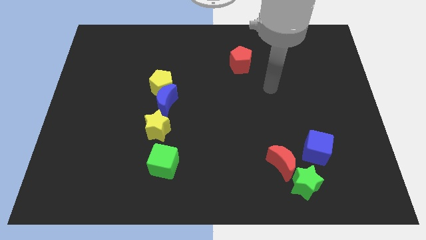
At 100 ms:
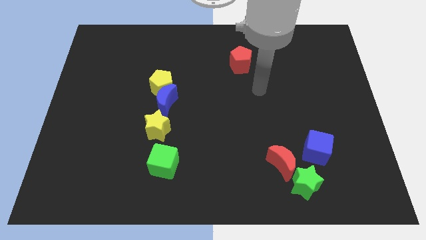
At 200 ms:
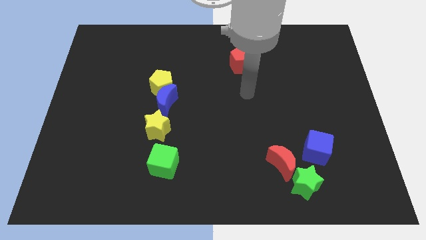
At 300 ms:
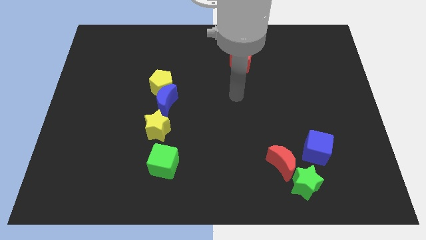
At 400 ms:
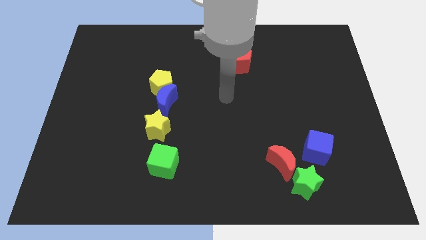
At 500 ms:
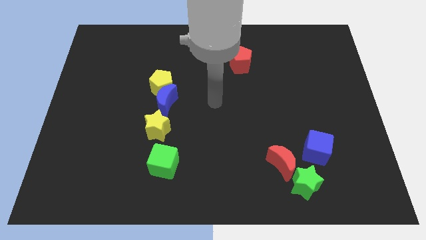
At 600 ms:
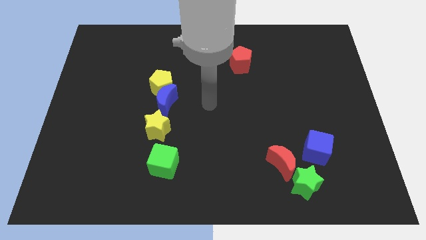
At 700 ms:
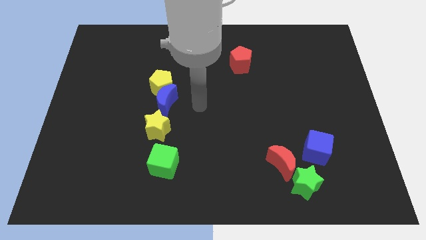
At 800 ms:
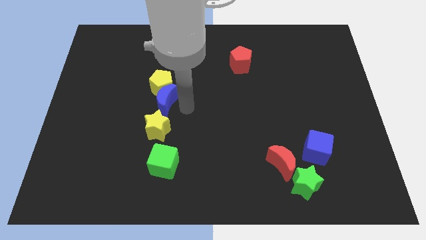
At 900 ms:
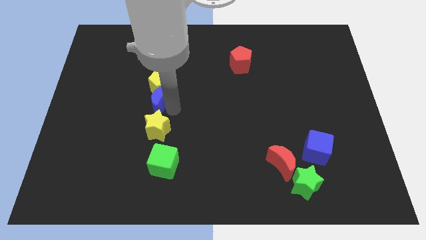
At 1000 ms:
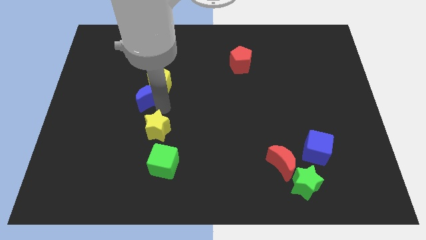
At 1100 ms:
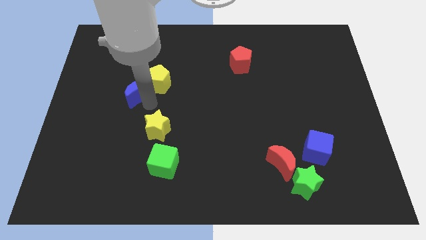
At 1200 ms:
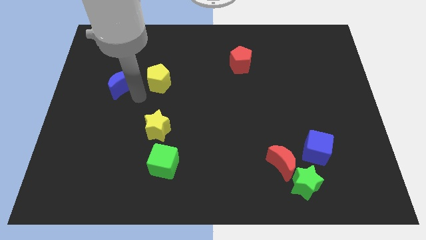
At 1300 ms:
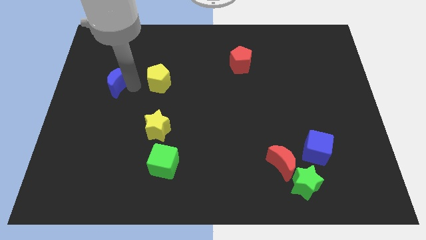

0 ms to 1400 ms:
pull the yellow pentagon apart from the blue moon

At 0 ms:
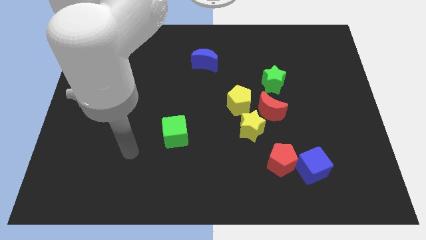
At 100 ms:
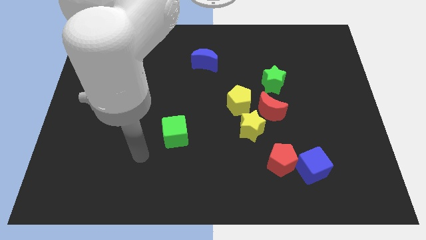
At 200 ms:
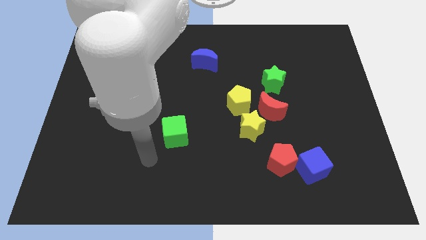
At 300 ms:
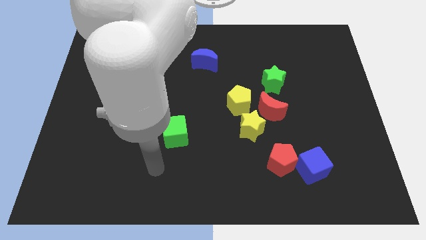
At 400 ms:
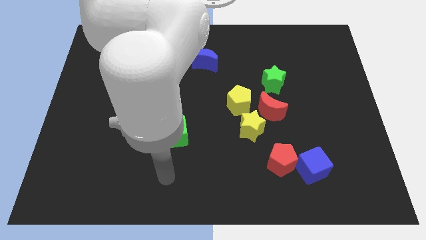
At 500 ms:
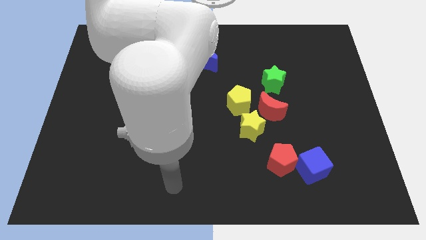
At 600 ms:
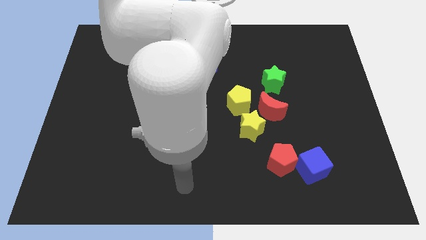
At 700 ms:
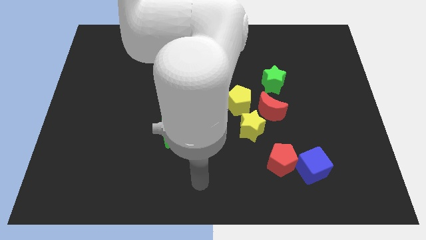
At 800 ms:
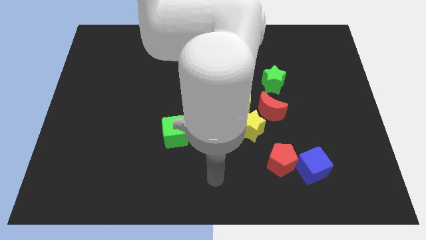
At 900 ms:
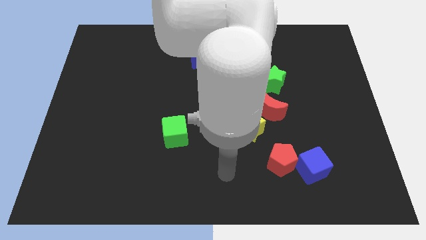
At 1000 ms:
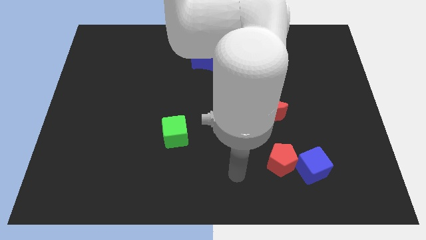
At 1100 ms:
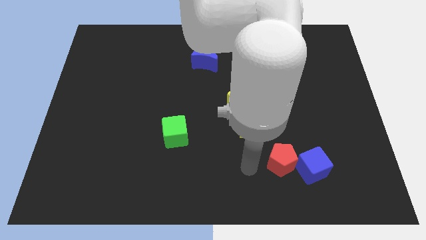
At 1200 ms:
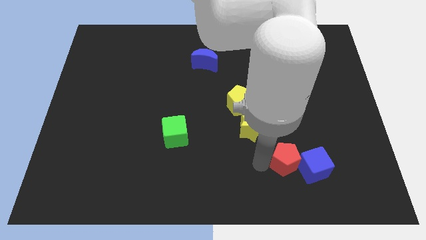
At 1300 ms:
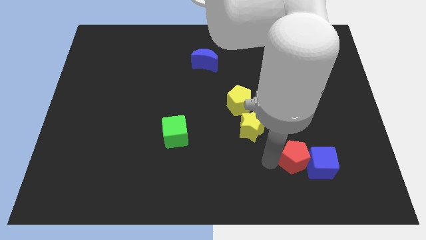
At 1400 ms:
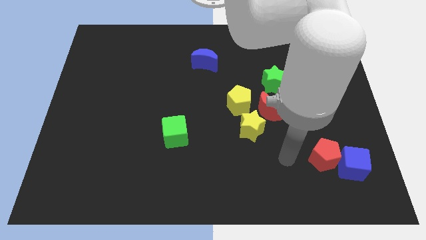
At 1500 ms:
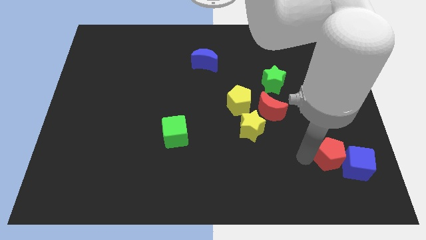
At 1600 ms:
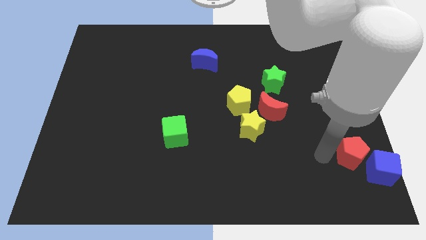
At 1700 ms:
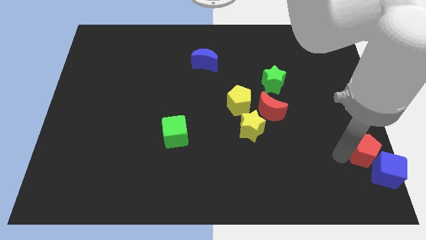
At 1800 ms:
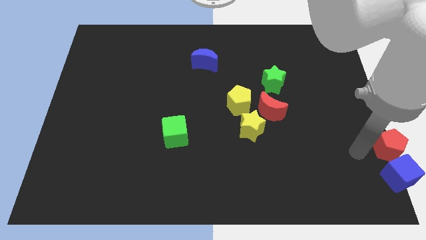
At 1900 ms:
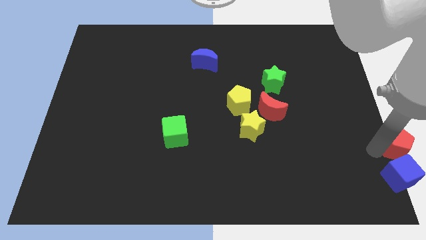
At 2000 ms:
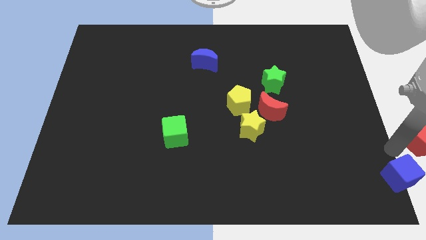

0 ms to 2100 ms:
move the blue cube away from the red pentagon

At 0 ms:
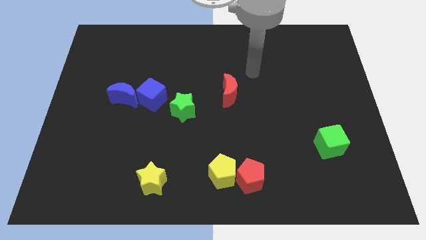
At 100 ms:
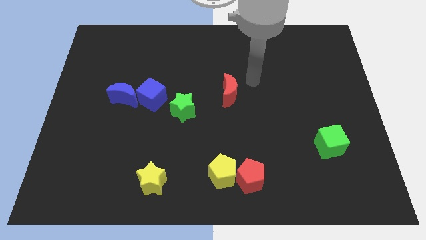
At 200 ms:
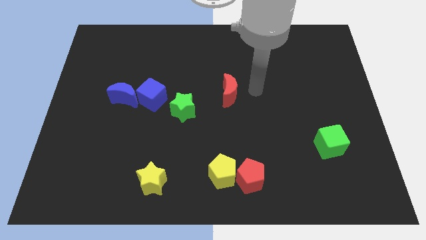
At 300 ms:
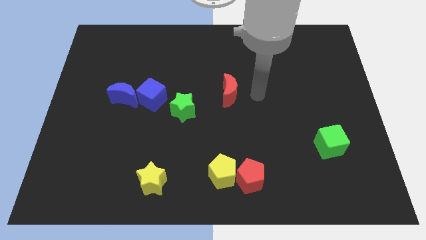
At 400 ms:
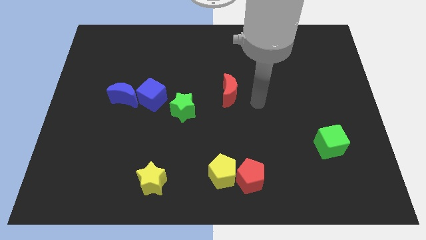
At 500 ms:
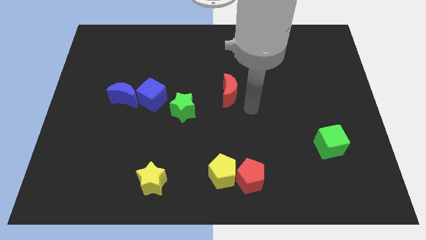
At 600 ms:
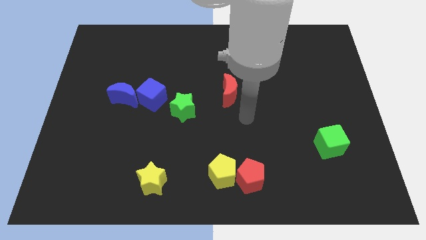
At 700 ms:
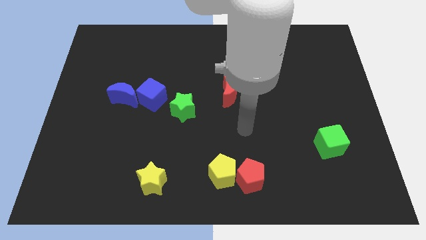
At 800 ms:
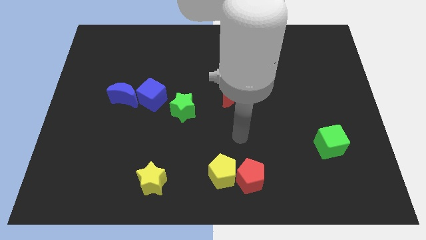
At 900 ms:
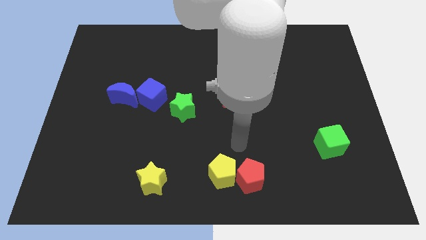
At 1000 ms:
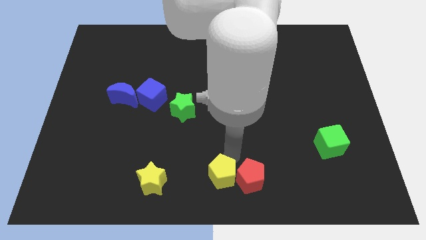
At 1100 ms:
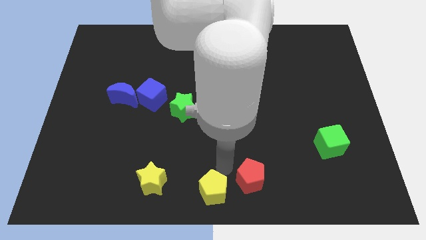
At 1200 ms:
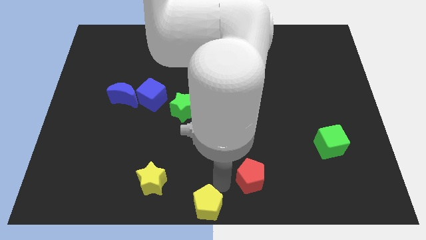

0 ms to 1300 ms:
separate the red pentagon from the yellow pentagon

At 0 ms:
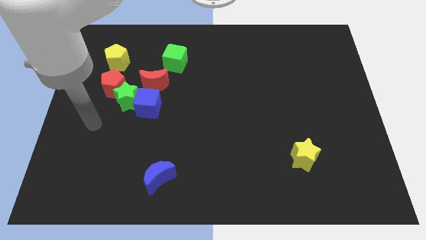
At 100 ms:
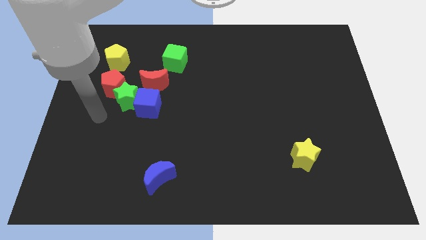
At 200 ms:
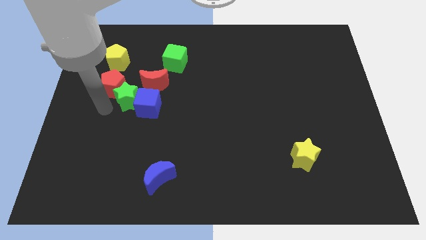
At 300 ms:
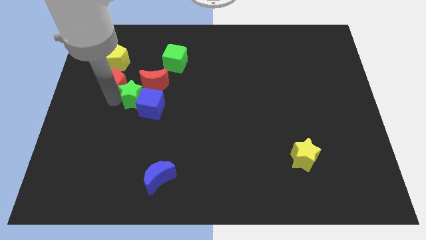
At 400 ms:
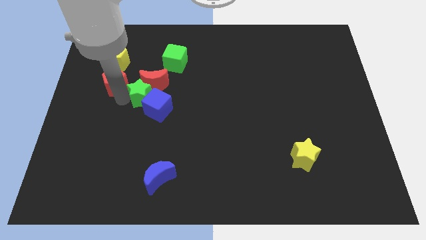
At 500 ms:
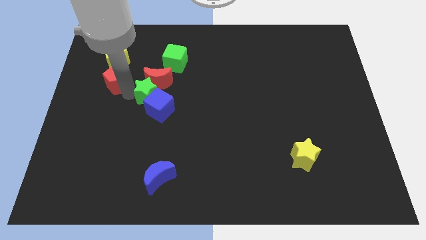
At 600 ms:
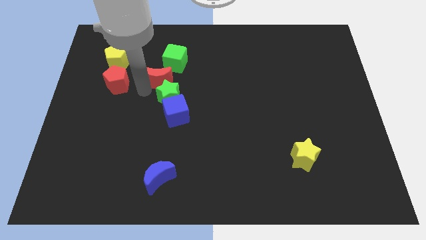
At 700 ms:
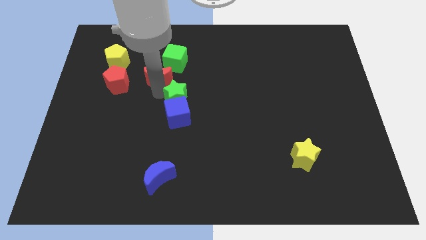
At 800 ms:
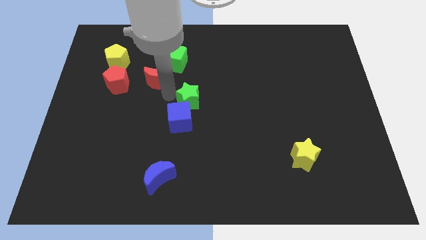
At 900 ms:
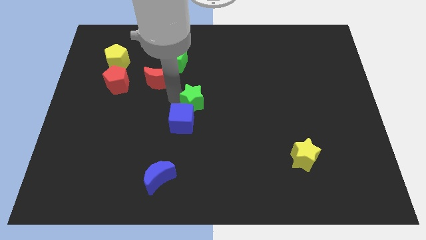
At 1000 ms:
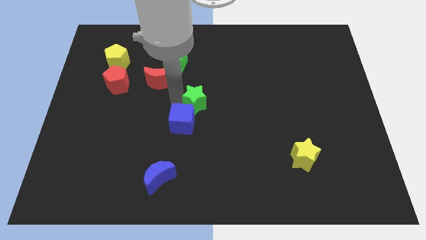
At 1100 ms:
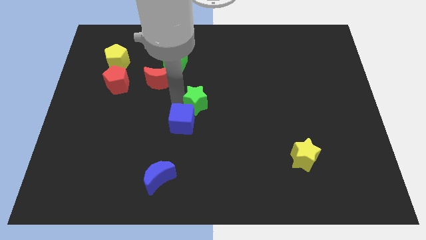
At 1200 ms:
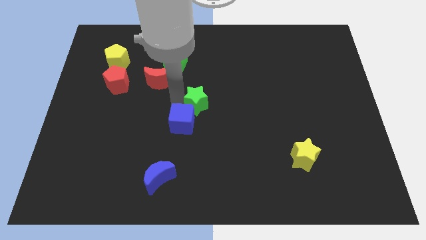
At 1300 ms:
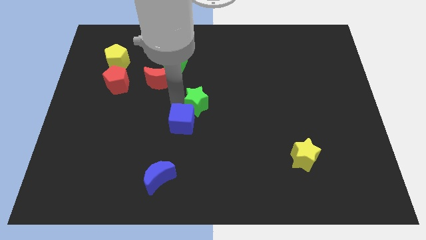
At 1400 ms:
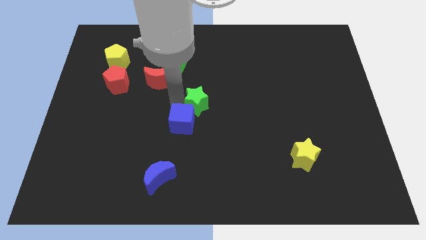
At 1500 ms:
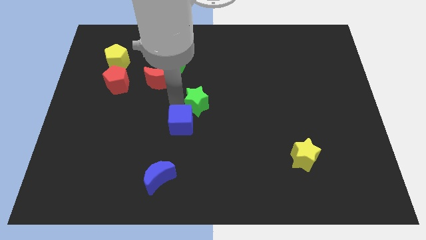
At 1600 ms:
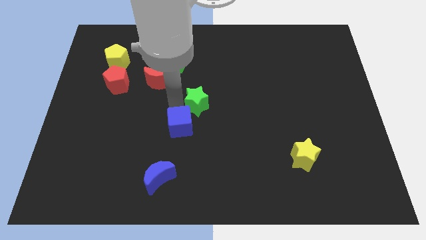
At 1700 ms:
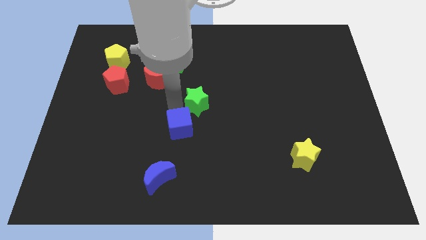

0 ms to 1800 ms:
pull the blue cube apart from the green star and red moon

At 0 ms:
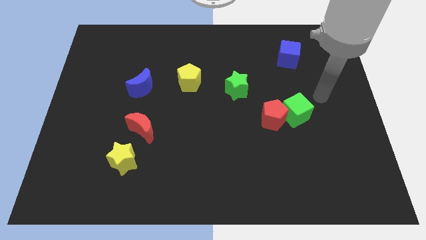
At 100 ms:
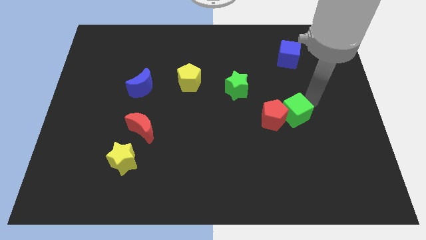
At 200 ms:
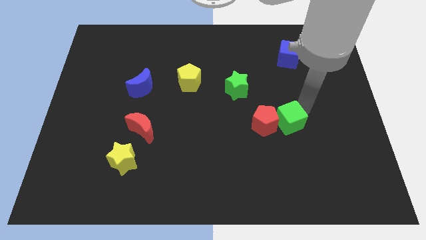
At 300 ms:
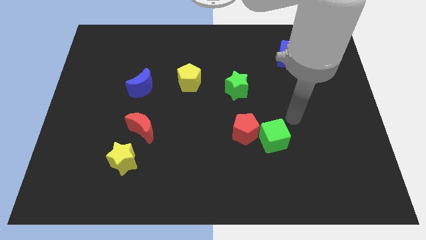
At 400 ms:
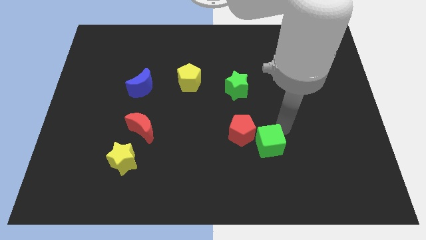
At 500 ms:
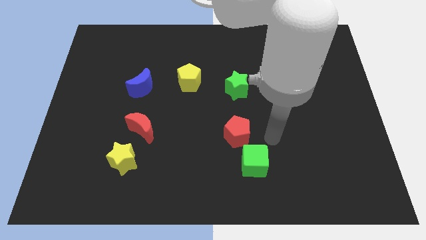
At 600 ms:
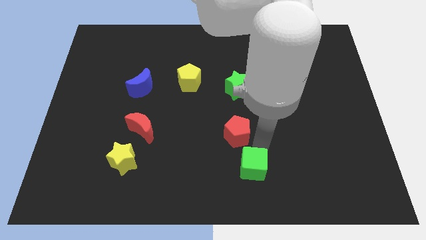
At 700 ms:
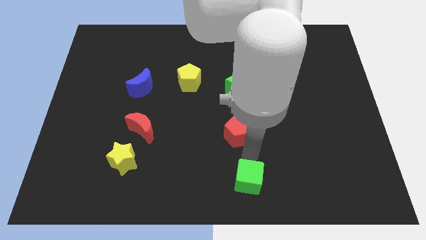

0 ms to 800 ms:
pull the red pentagon apart from the green cube

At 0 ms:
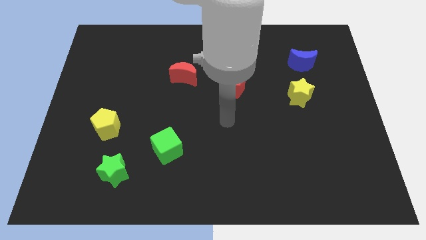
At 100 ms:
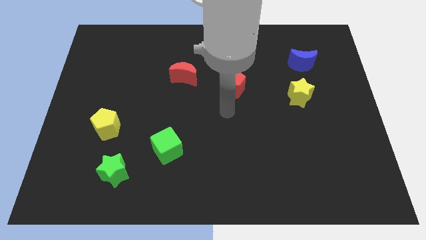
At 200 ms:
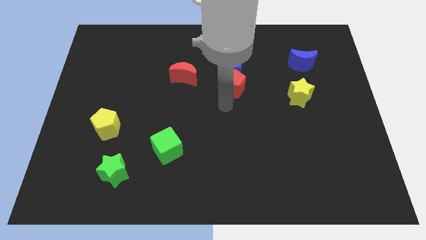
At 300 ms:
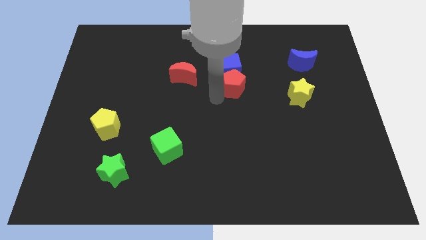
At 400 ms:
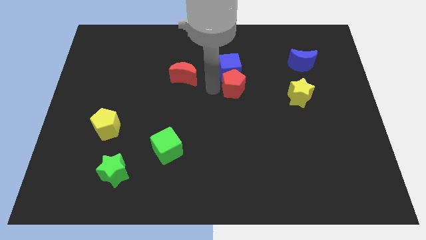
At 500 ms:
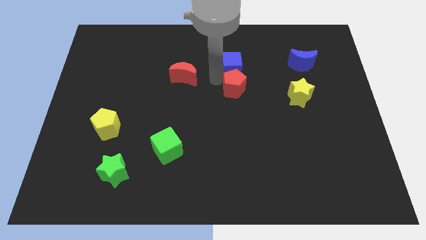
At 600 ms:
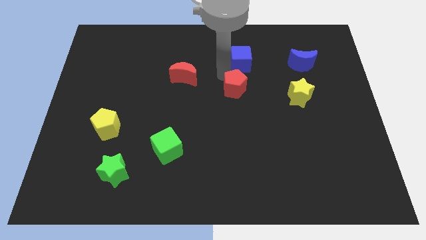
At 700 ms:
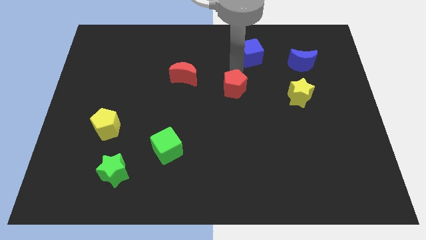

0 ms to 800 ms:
separate the red pentagon from the blue cube

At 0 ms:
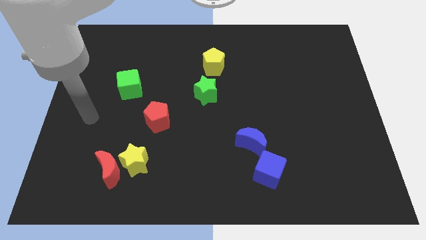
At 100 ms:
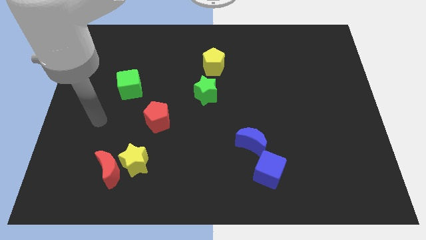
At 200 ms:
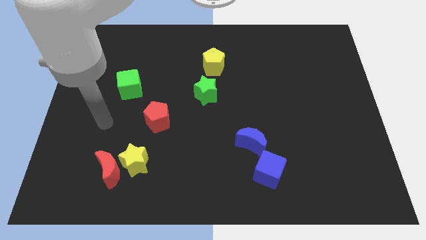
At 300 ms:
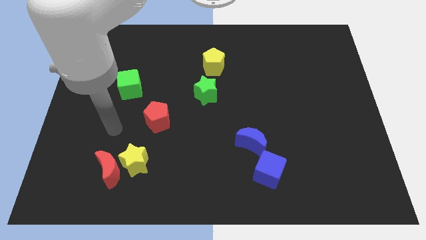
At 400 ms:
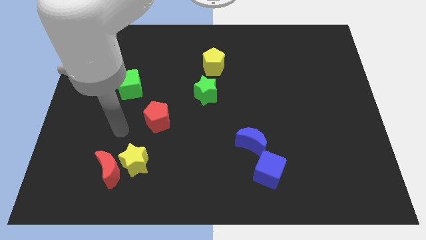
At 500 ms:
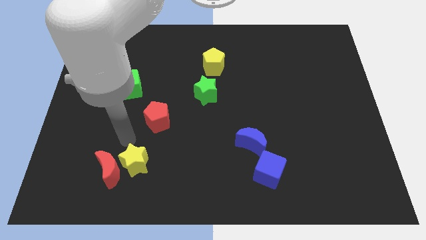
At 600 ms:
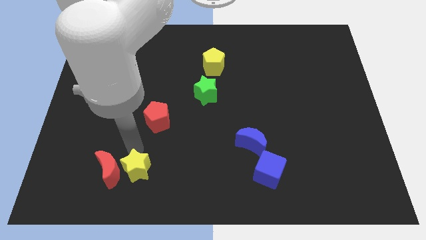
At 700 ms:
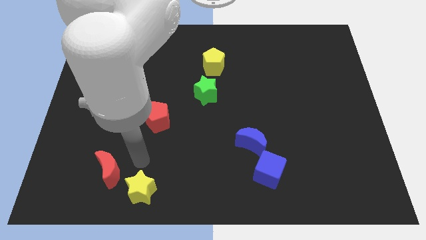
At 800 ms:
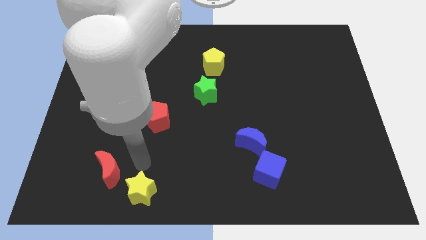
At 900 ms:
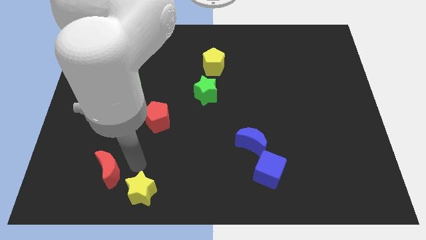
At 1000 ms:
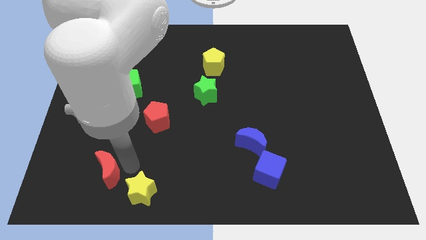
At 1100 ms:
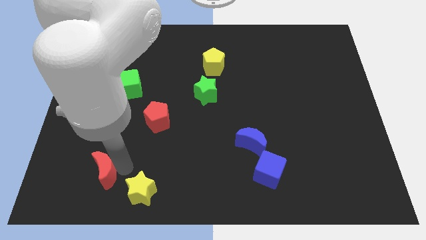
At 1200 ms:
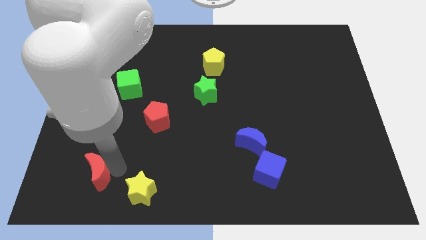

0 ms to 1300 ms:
move the red moon away from the yellow star
